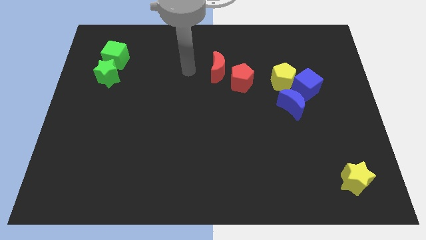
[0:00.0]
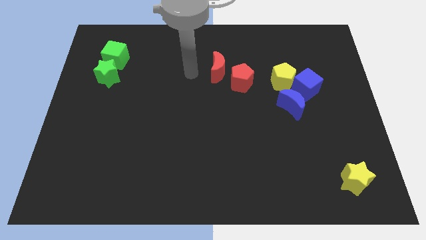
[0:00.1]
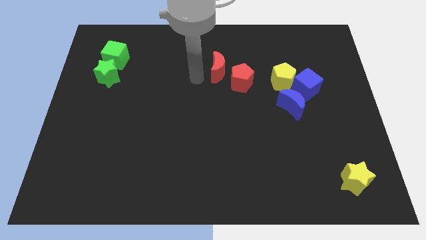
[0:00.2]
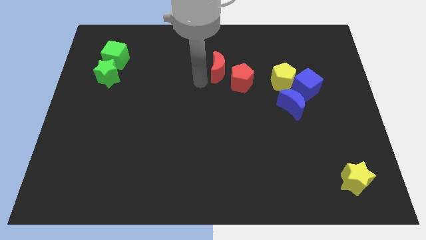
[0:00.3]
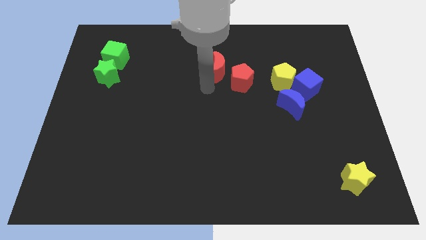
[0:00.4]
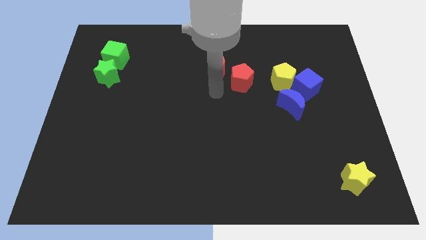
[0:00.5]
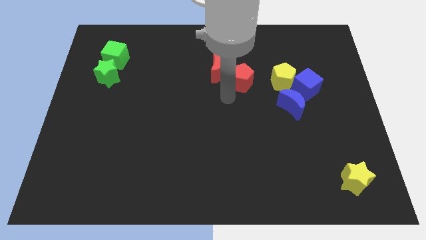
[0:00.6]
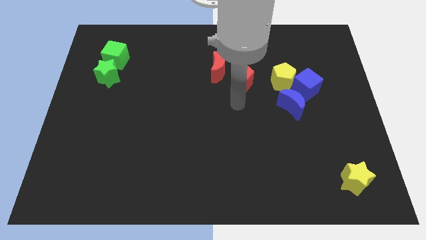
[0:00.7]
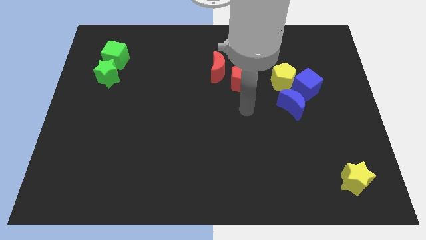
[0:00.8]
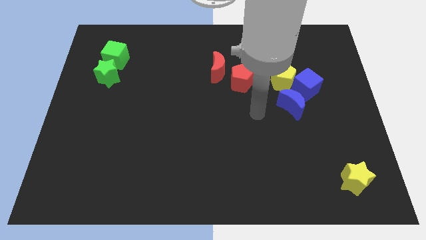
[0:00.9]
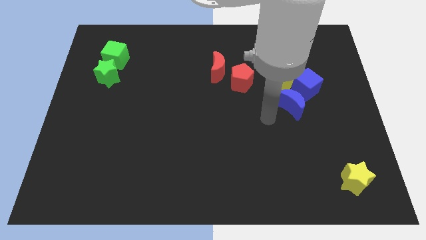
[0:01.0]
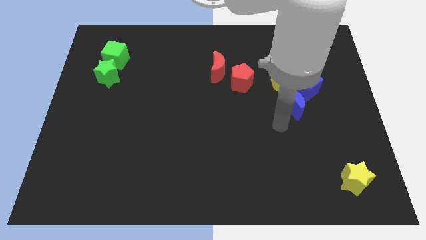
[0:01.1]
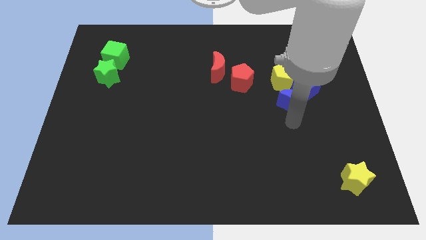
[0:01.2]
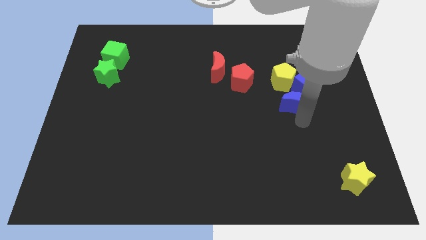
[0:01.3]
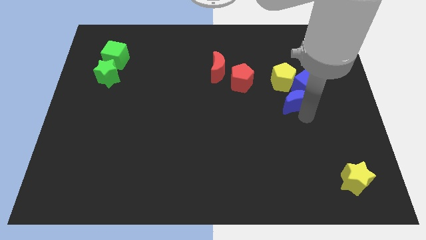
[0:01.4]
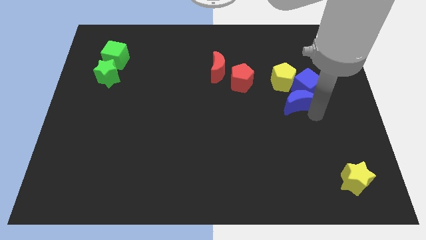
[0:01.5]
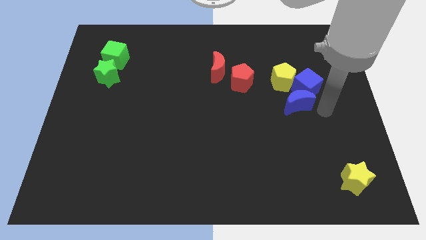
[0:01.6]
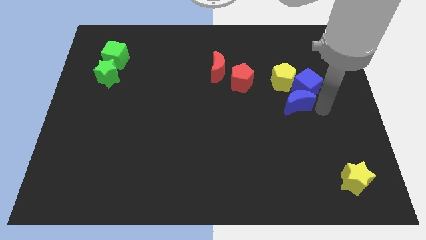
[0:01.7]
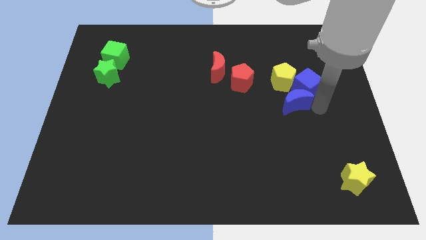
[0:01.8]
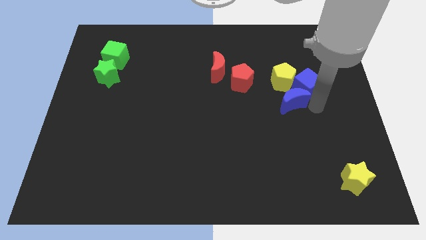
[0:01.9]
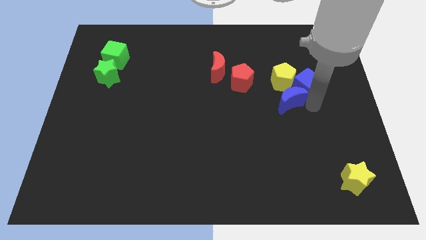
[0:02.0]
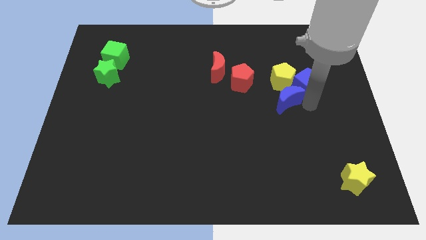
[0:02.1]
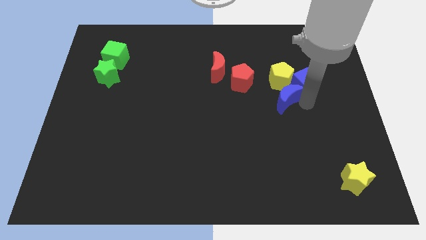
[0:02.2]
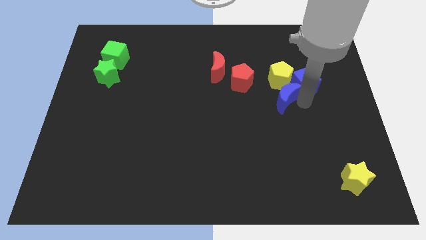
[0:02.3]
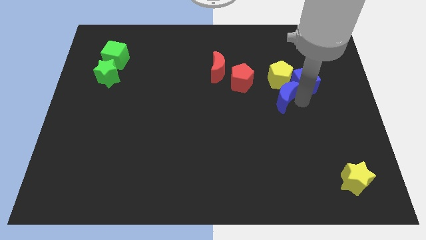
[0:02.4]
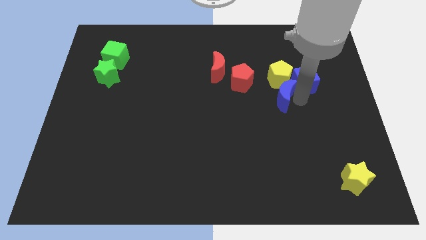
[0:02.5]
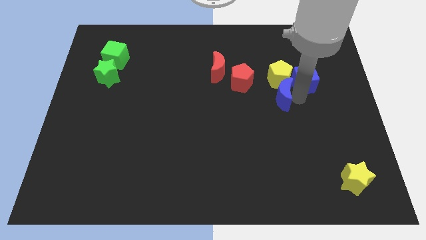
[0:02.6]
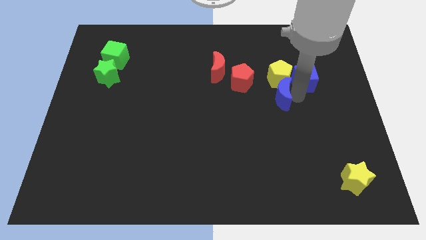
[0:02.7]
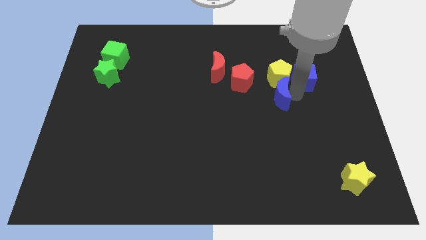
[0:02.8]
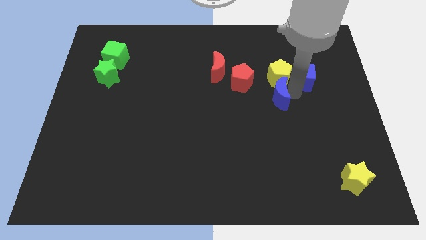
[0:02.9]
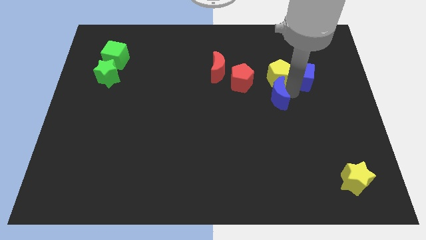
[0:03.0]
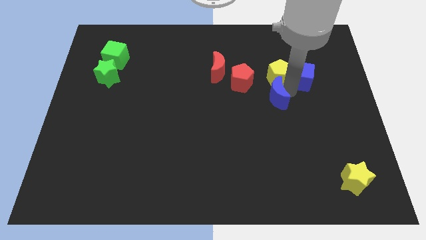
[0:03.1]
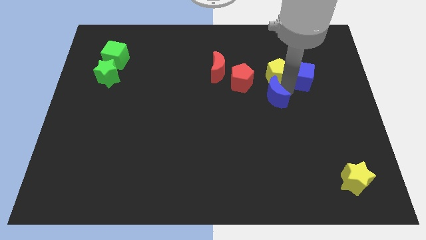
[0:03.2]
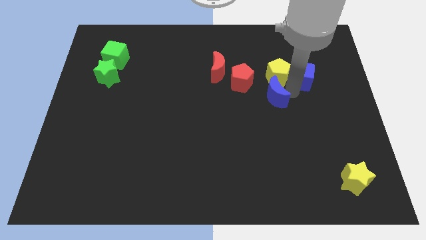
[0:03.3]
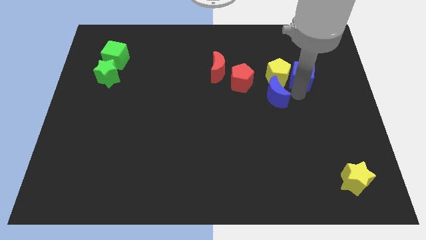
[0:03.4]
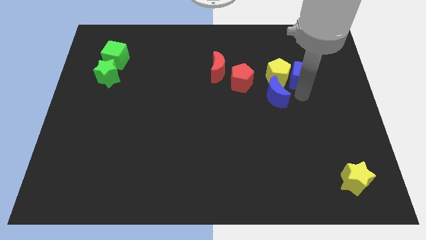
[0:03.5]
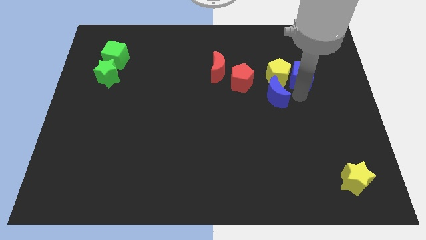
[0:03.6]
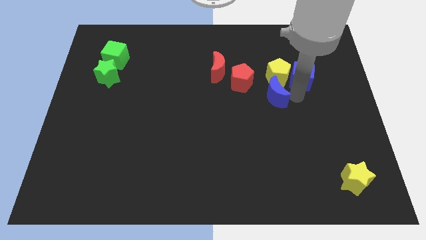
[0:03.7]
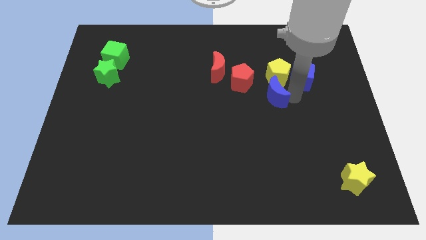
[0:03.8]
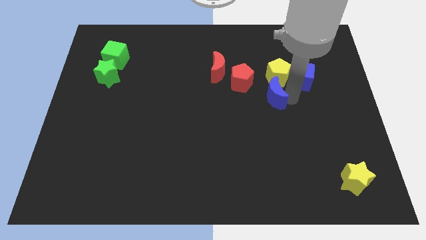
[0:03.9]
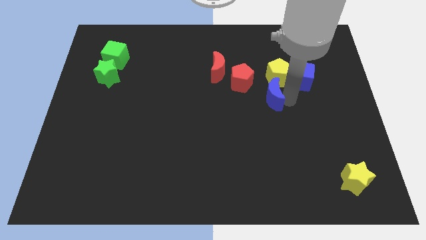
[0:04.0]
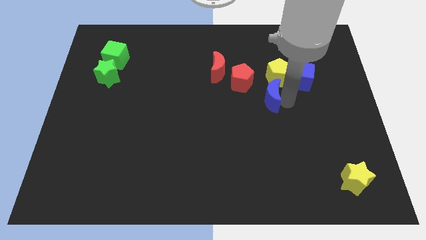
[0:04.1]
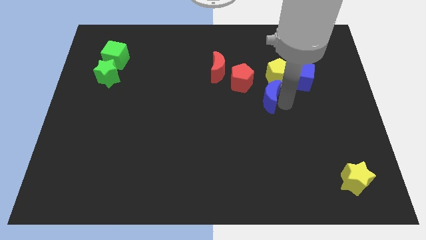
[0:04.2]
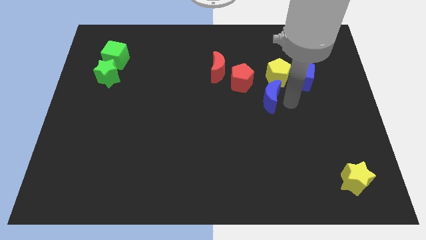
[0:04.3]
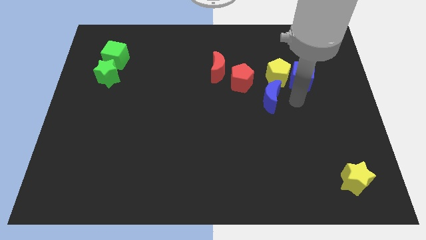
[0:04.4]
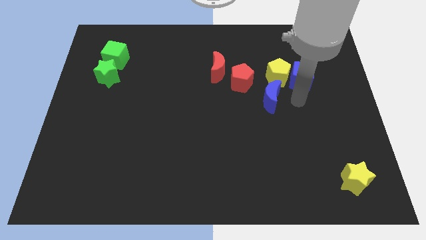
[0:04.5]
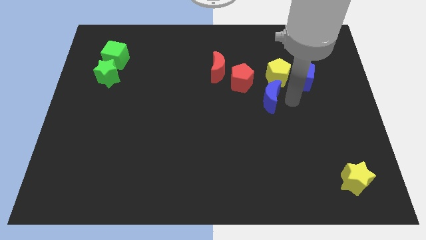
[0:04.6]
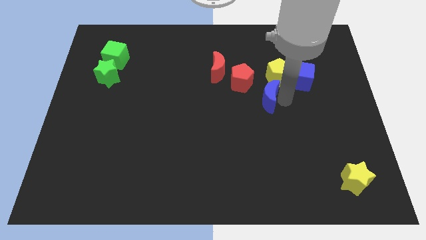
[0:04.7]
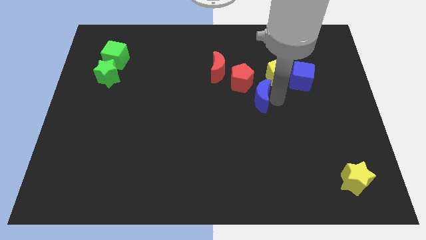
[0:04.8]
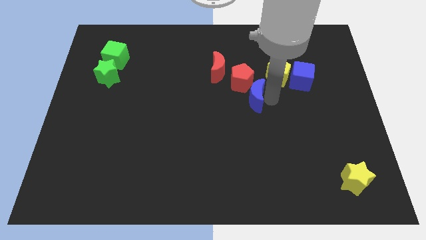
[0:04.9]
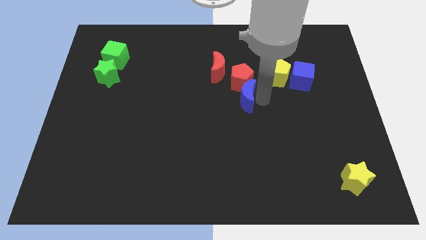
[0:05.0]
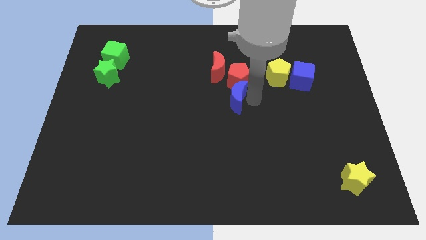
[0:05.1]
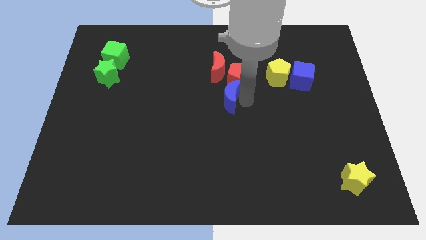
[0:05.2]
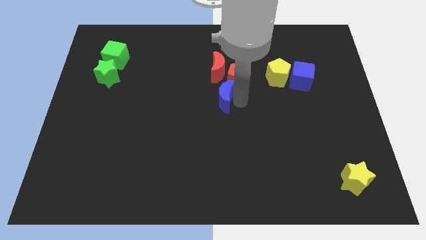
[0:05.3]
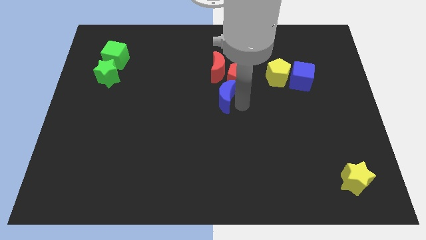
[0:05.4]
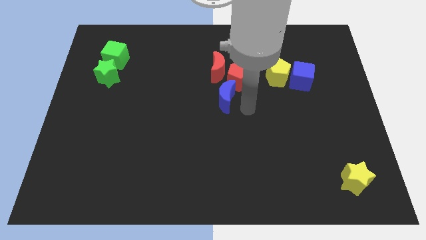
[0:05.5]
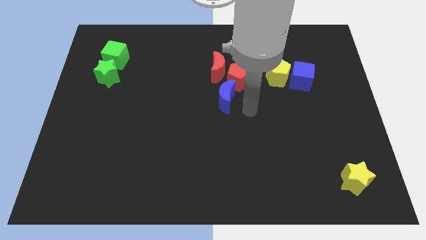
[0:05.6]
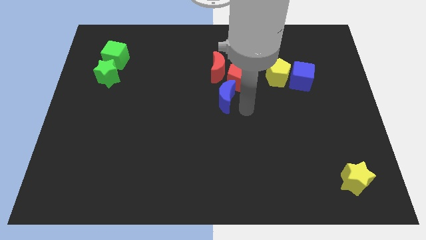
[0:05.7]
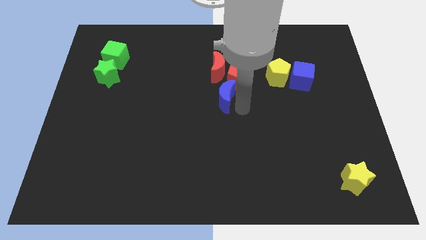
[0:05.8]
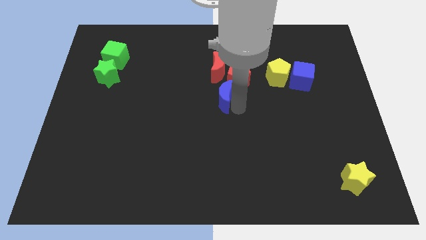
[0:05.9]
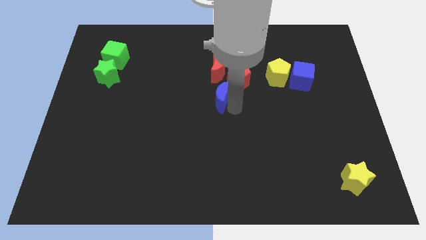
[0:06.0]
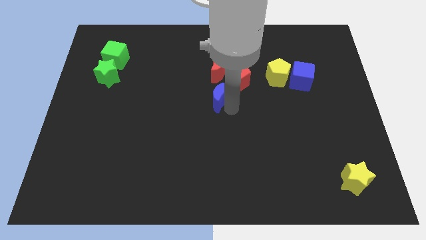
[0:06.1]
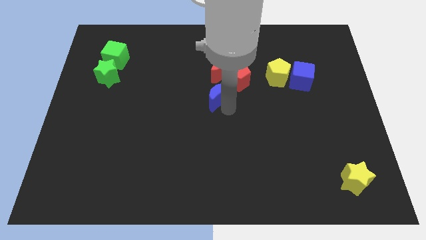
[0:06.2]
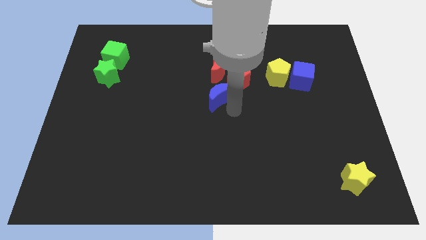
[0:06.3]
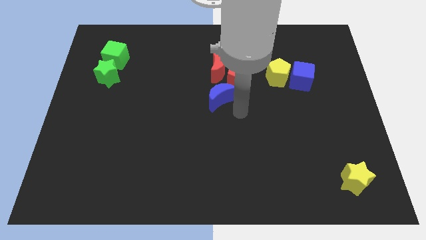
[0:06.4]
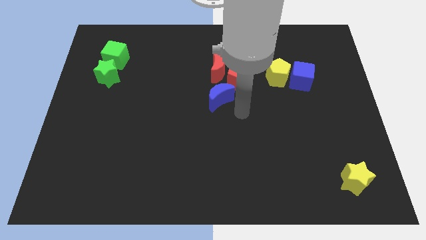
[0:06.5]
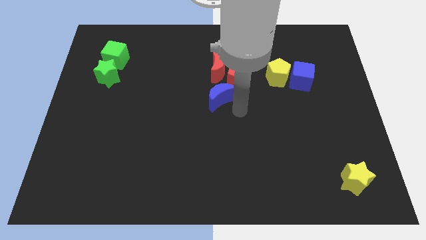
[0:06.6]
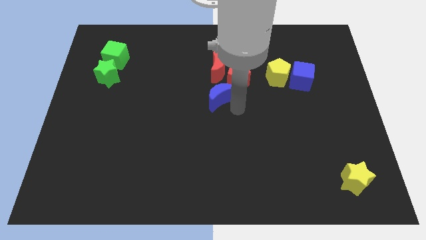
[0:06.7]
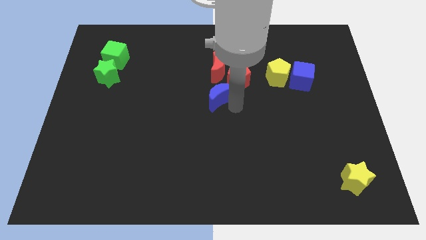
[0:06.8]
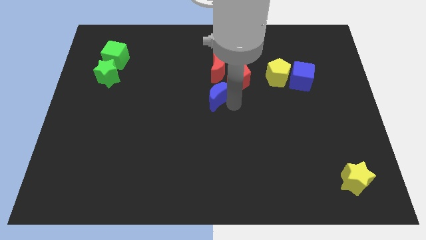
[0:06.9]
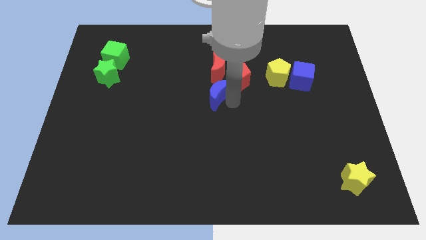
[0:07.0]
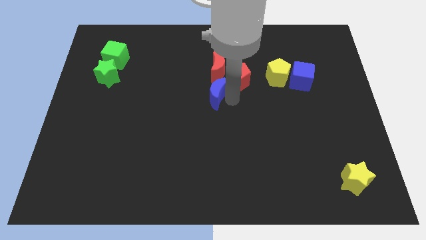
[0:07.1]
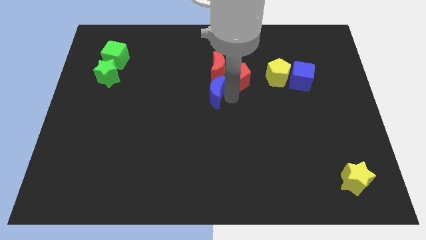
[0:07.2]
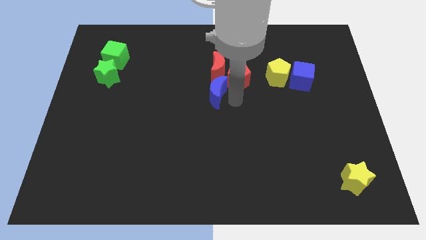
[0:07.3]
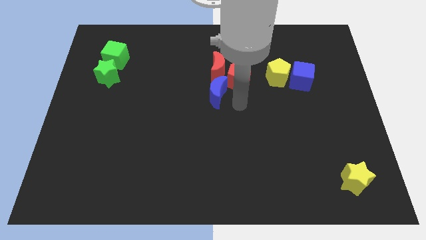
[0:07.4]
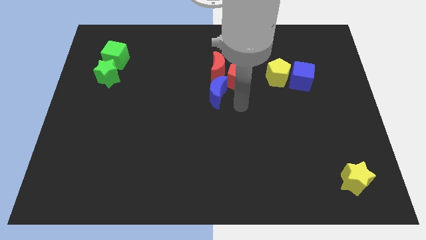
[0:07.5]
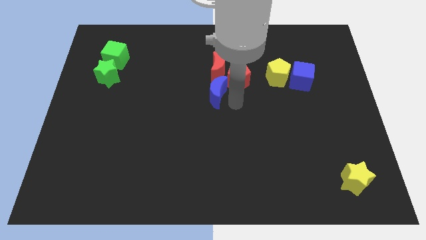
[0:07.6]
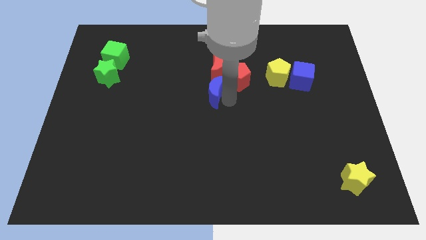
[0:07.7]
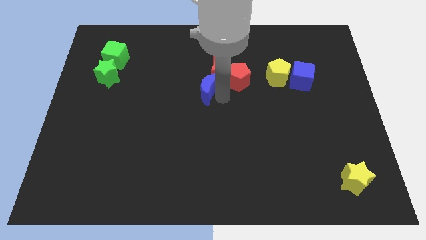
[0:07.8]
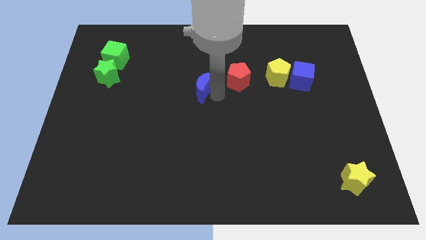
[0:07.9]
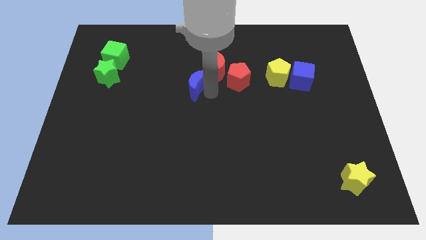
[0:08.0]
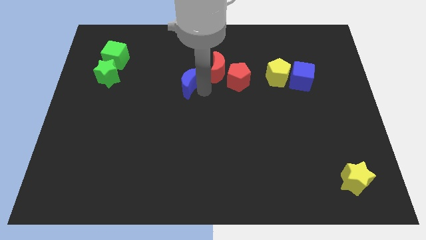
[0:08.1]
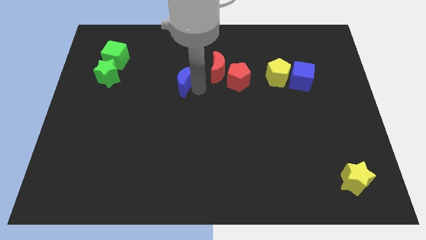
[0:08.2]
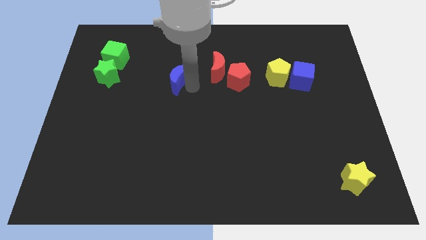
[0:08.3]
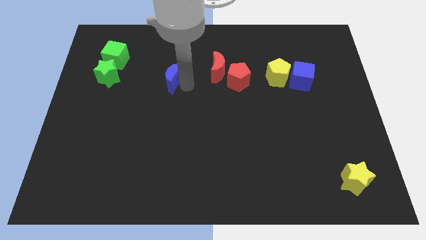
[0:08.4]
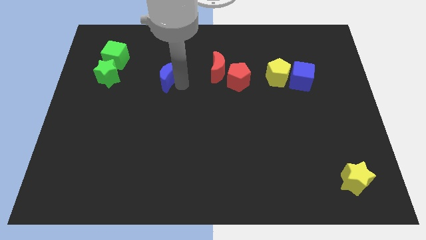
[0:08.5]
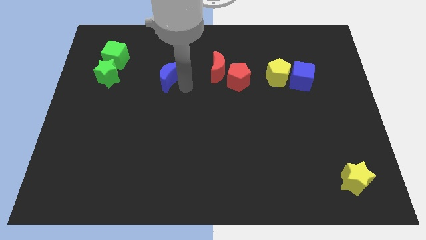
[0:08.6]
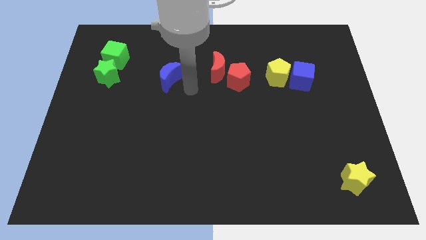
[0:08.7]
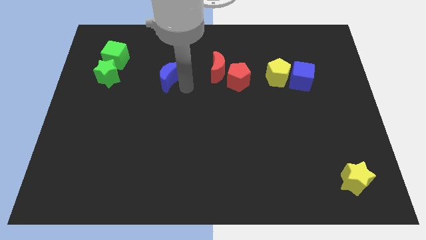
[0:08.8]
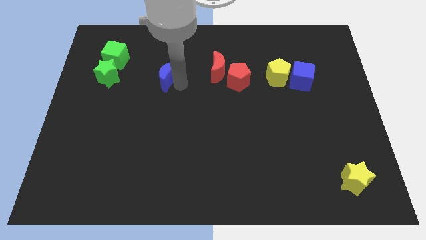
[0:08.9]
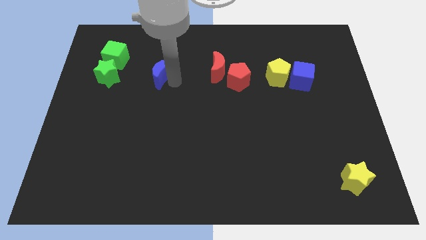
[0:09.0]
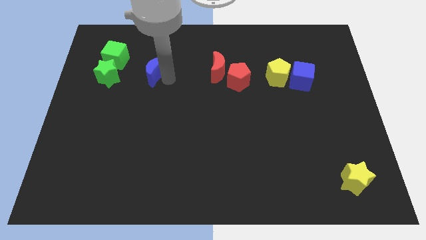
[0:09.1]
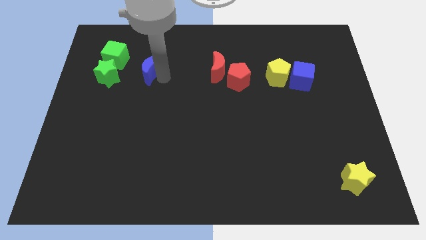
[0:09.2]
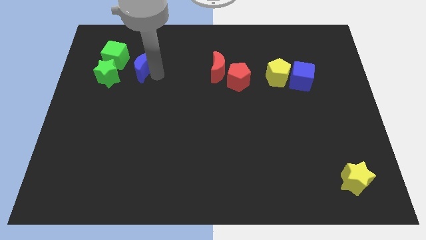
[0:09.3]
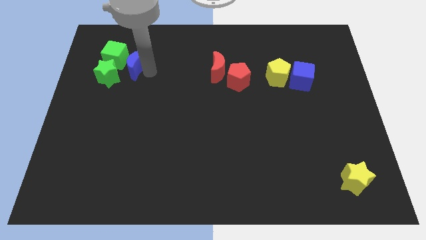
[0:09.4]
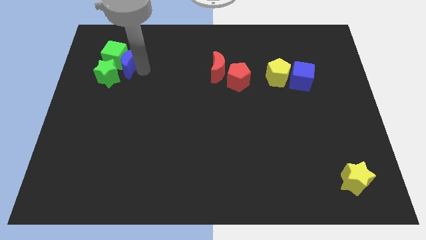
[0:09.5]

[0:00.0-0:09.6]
push the blue moon to the green cube
